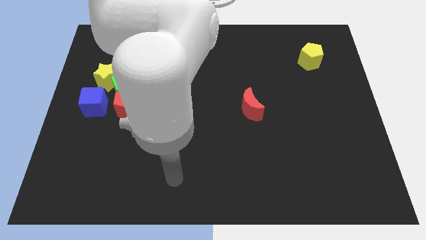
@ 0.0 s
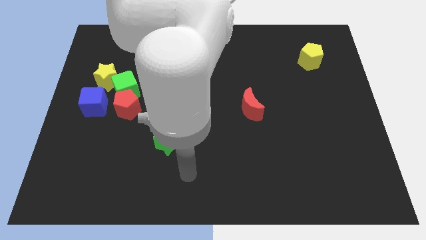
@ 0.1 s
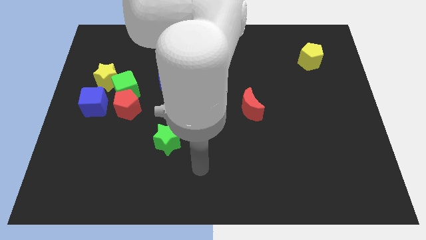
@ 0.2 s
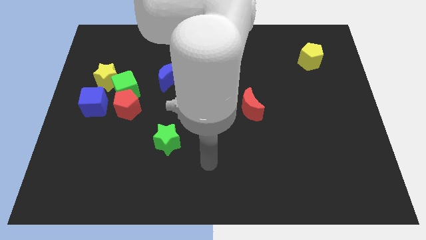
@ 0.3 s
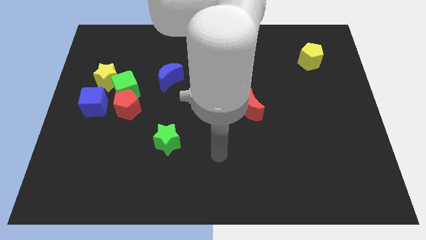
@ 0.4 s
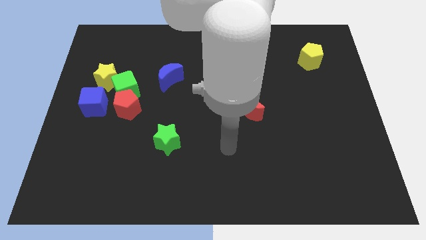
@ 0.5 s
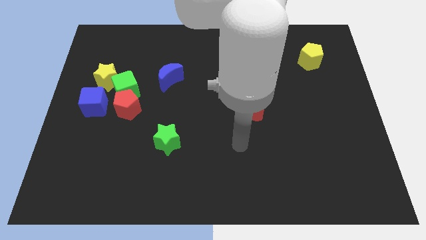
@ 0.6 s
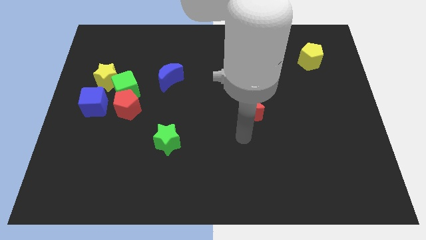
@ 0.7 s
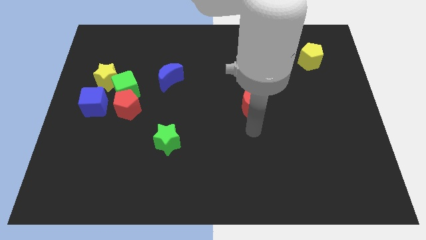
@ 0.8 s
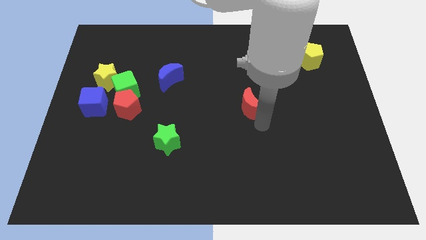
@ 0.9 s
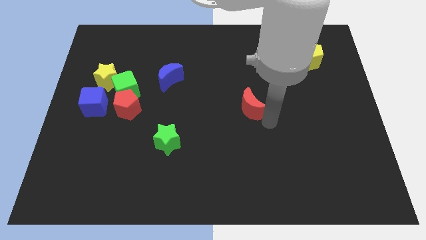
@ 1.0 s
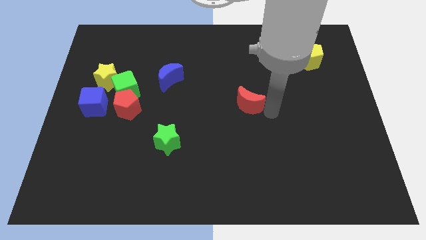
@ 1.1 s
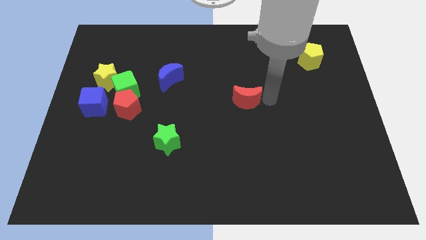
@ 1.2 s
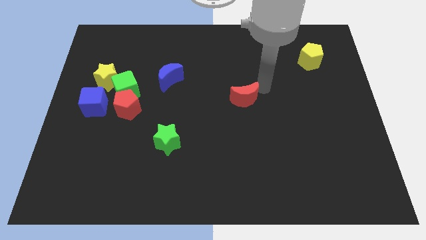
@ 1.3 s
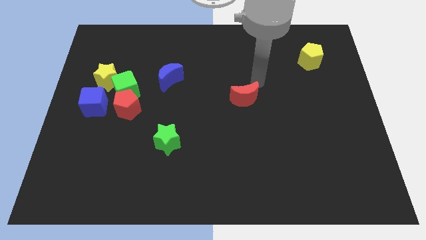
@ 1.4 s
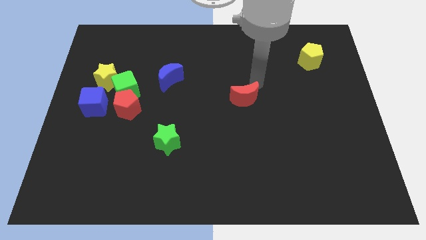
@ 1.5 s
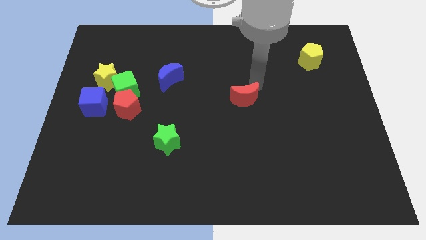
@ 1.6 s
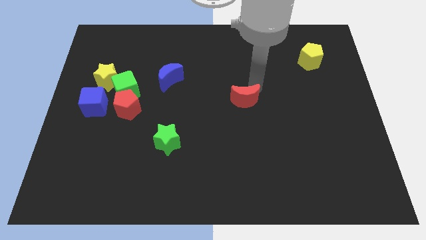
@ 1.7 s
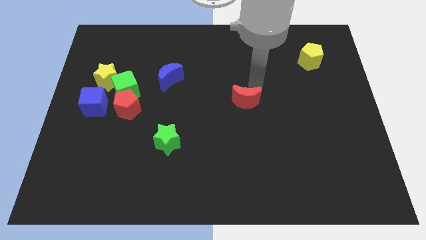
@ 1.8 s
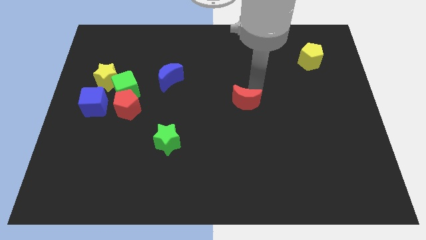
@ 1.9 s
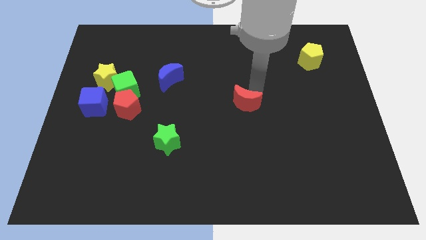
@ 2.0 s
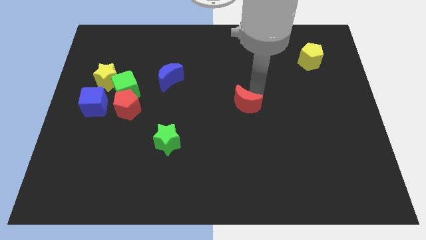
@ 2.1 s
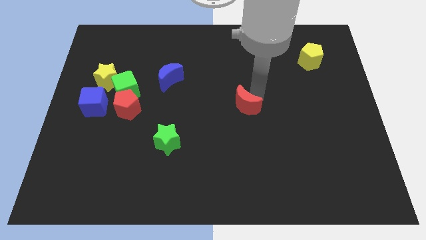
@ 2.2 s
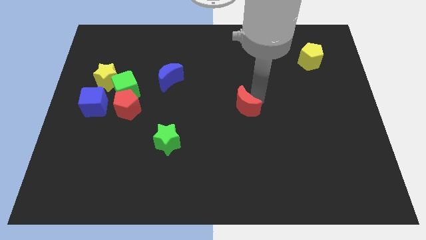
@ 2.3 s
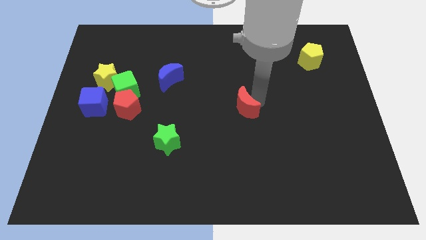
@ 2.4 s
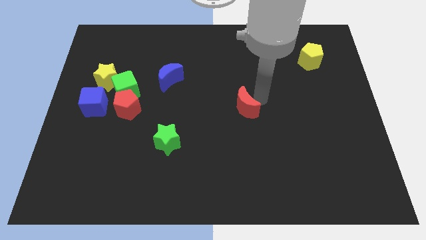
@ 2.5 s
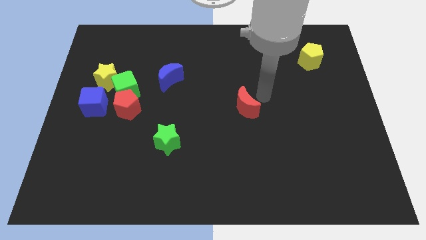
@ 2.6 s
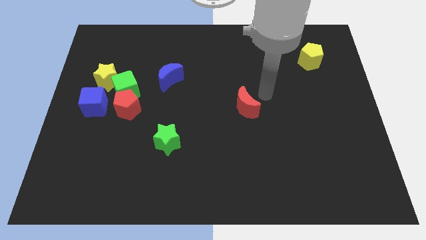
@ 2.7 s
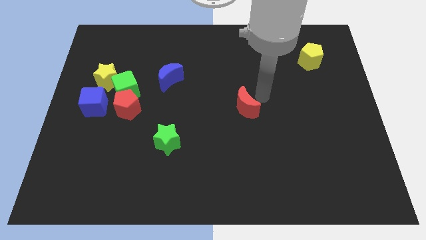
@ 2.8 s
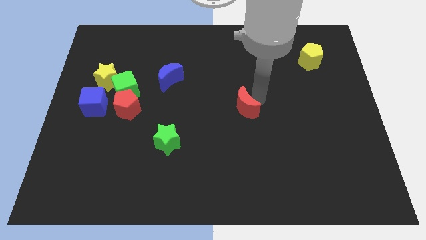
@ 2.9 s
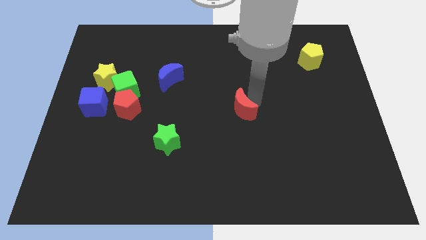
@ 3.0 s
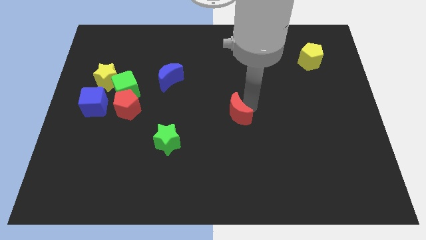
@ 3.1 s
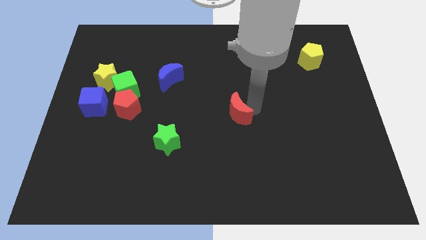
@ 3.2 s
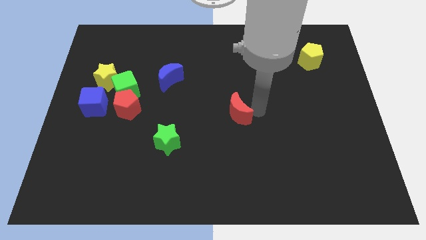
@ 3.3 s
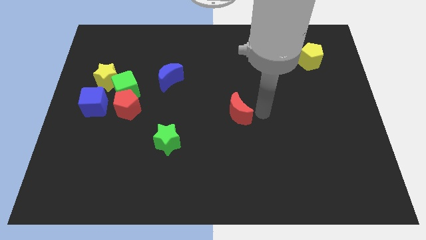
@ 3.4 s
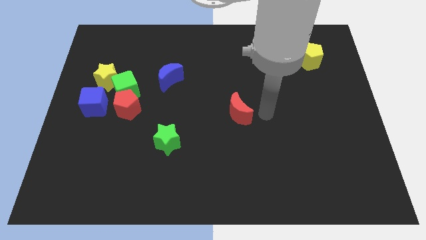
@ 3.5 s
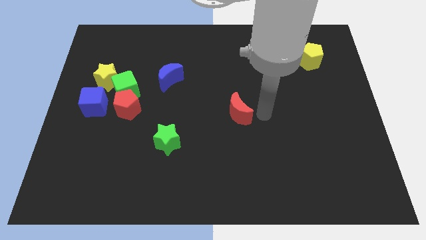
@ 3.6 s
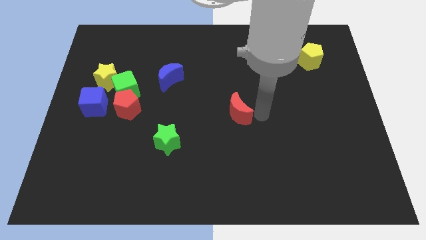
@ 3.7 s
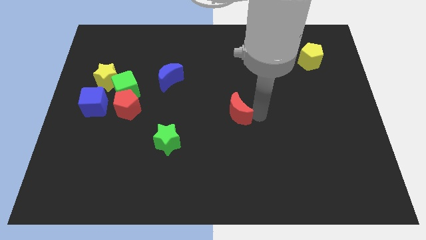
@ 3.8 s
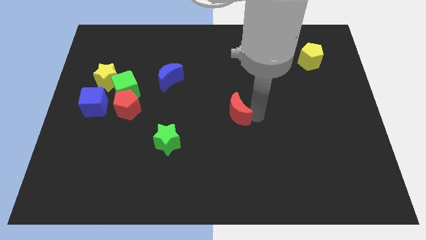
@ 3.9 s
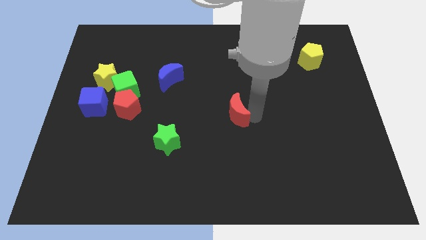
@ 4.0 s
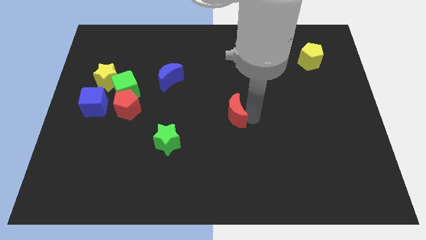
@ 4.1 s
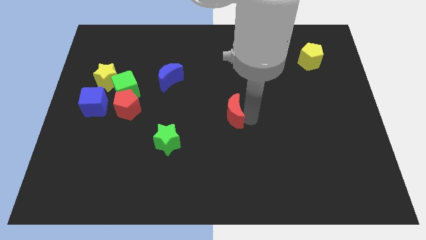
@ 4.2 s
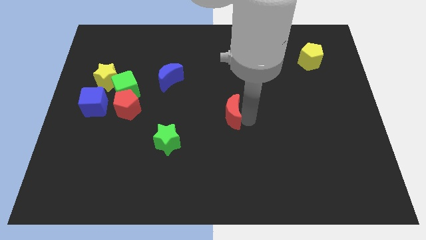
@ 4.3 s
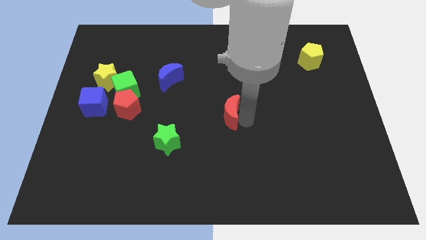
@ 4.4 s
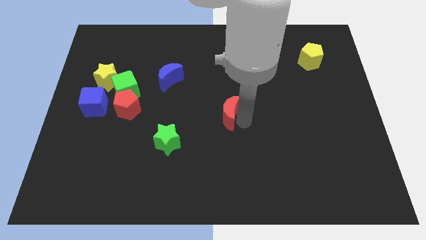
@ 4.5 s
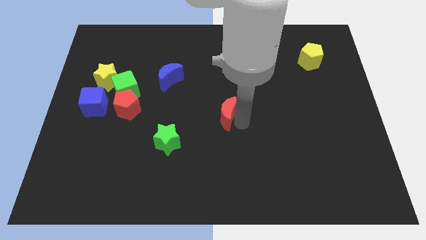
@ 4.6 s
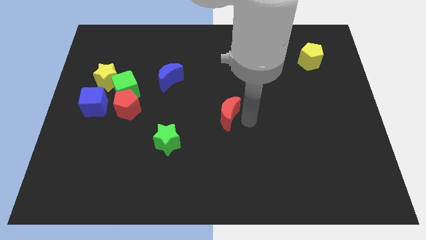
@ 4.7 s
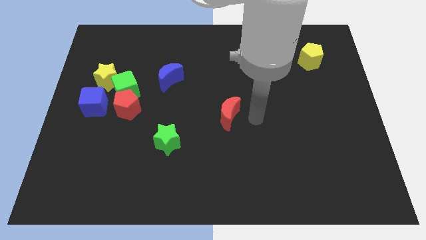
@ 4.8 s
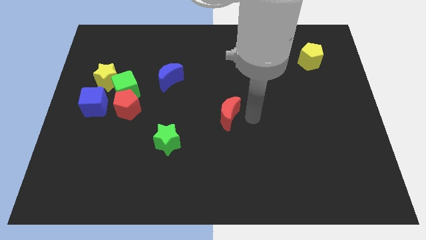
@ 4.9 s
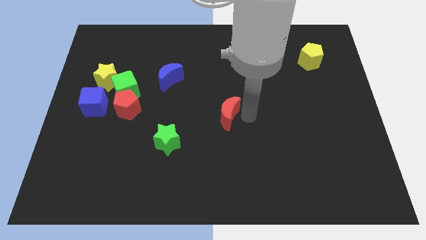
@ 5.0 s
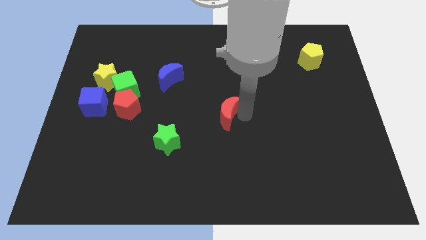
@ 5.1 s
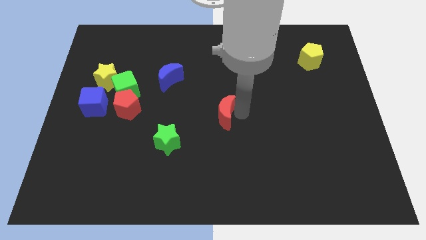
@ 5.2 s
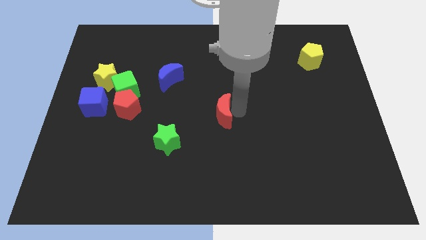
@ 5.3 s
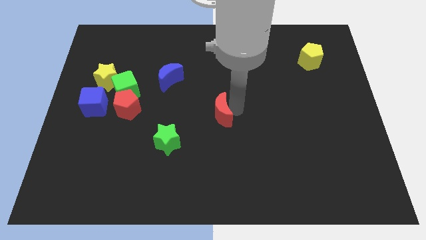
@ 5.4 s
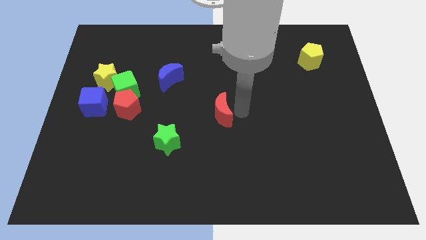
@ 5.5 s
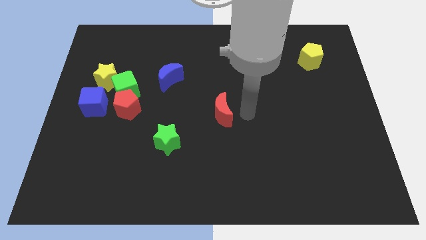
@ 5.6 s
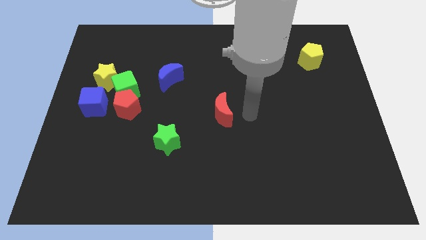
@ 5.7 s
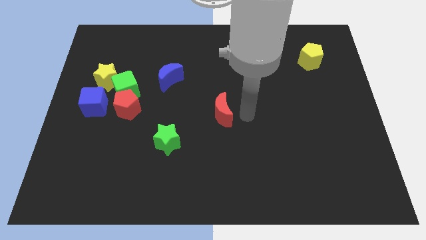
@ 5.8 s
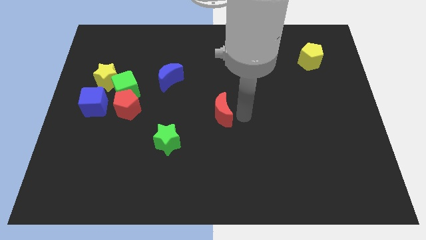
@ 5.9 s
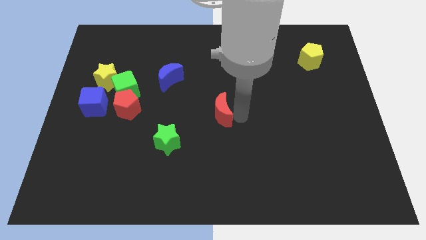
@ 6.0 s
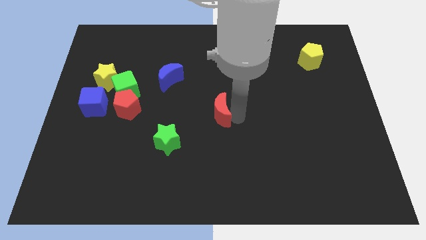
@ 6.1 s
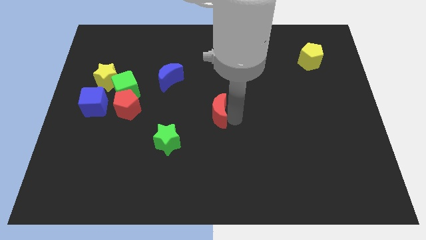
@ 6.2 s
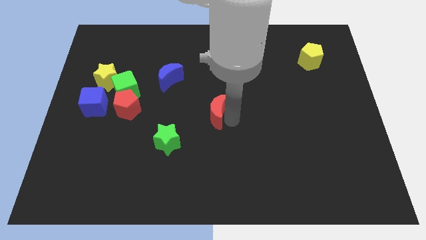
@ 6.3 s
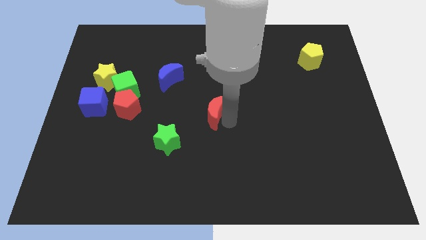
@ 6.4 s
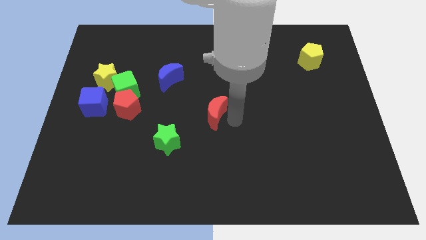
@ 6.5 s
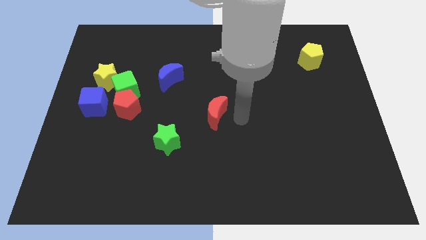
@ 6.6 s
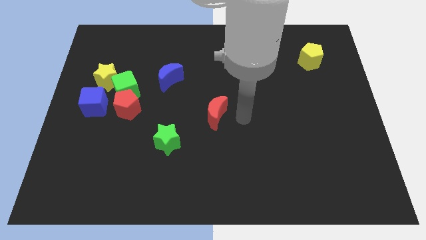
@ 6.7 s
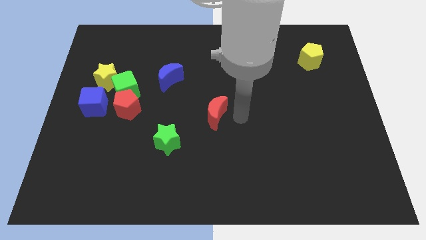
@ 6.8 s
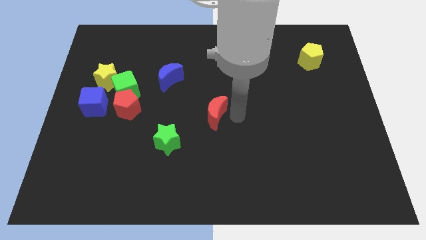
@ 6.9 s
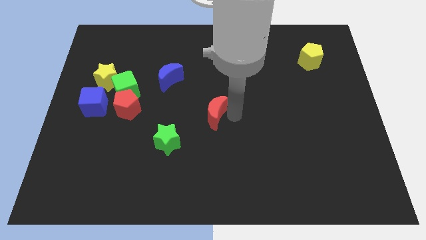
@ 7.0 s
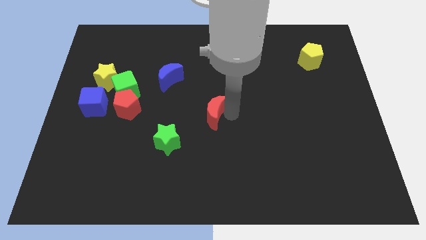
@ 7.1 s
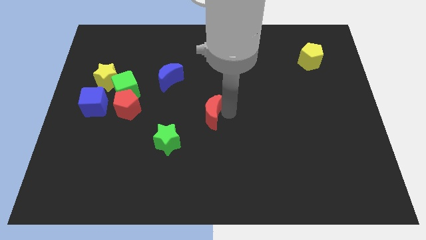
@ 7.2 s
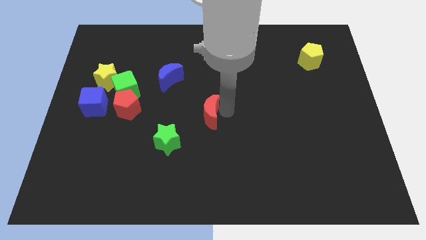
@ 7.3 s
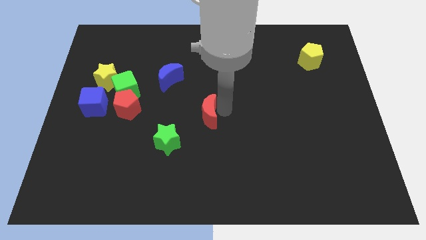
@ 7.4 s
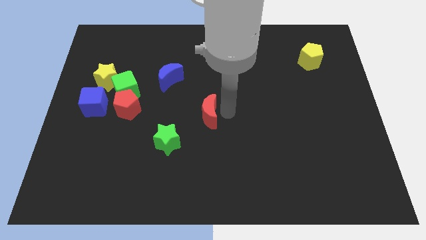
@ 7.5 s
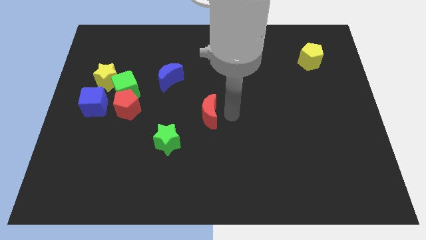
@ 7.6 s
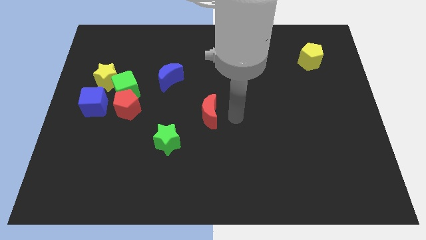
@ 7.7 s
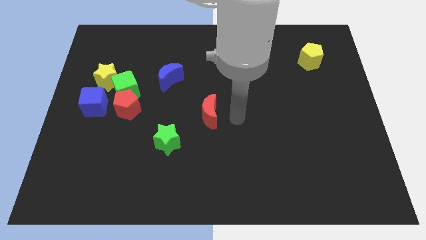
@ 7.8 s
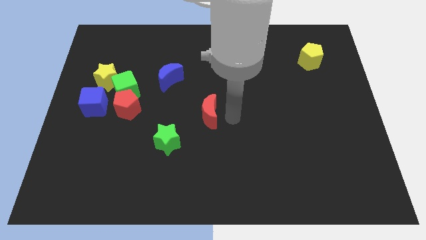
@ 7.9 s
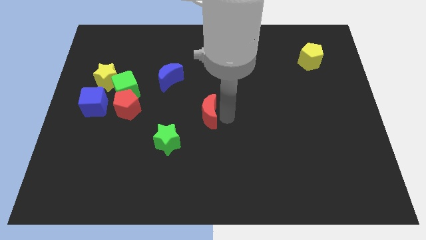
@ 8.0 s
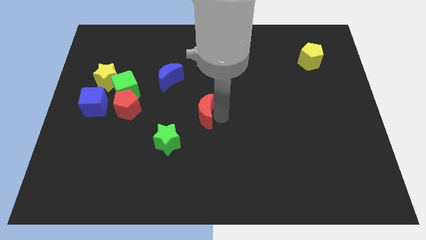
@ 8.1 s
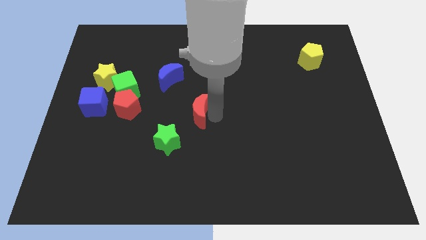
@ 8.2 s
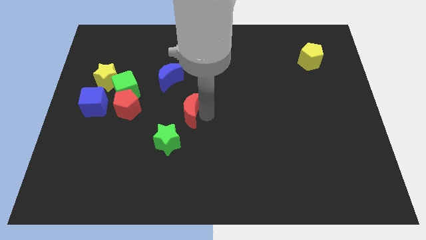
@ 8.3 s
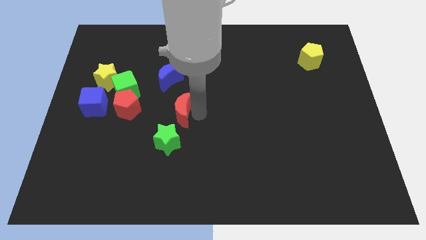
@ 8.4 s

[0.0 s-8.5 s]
put the red moon to the bottom side of the blue moon
